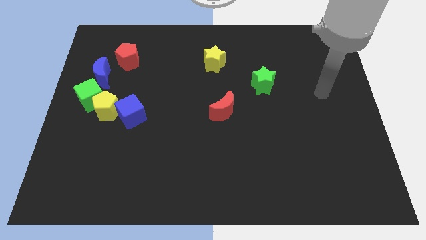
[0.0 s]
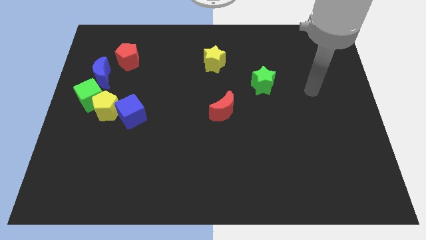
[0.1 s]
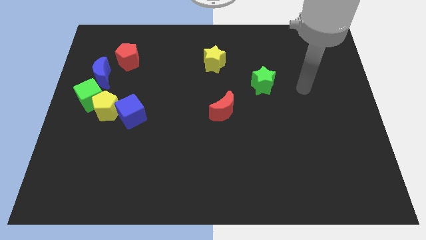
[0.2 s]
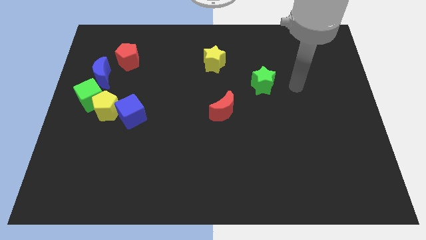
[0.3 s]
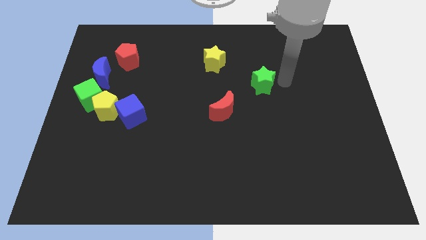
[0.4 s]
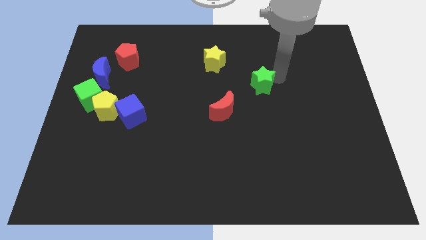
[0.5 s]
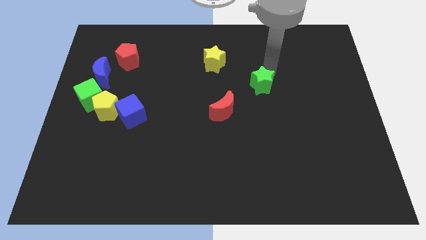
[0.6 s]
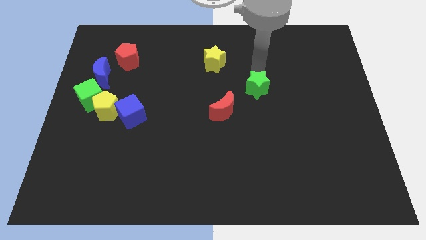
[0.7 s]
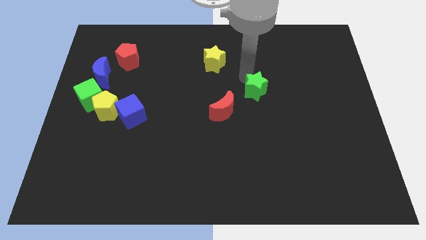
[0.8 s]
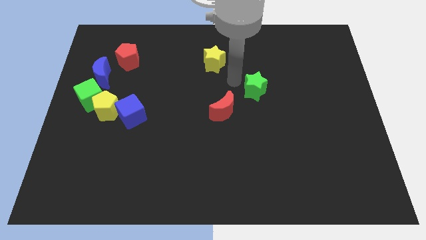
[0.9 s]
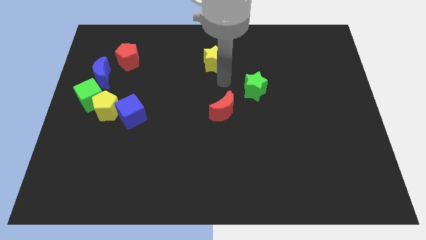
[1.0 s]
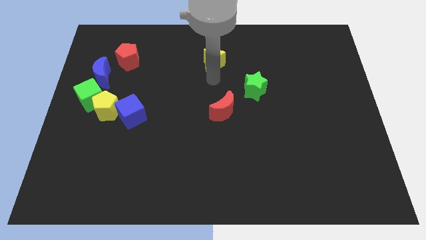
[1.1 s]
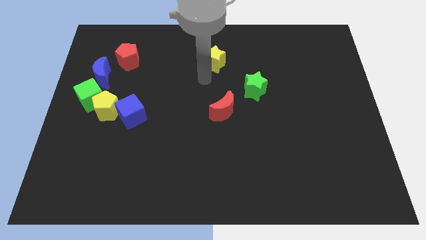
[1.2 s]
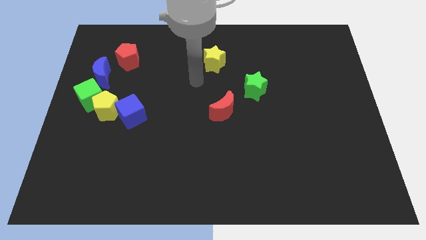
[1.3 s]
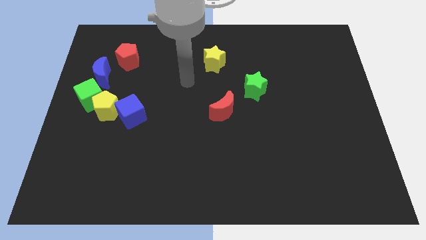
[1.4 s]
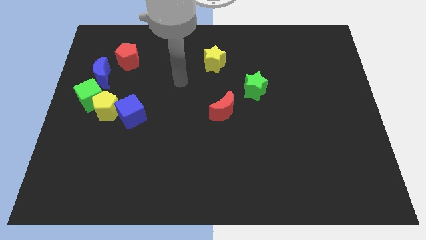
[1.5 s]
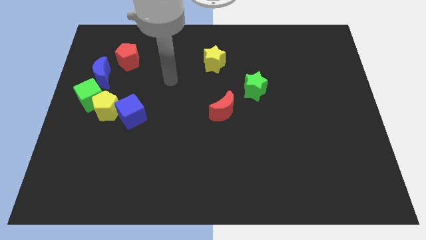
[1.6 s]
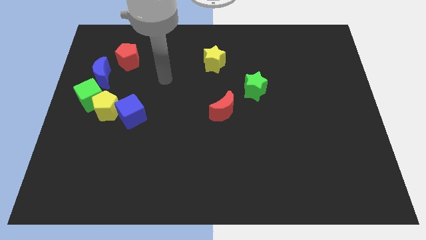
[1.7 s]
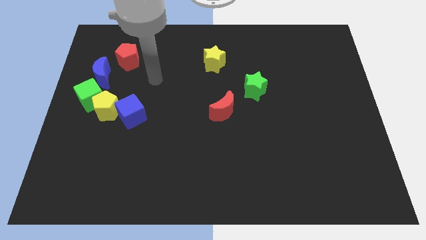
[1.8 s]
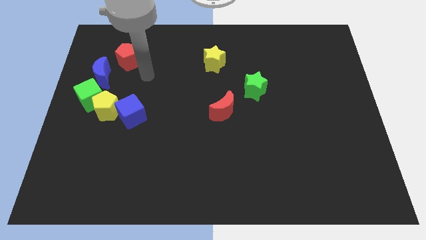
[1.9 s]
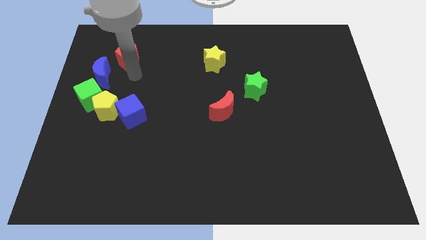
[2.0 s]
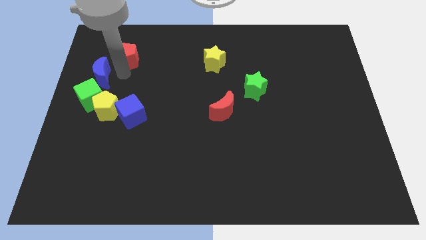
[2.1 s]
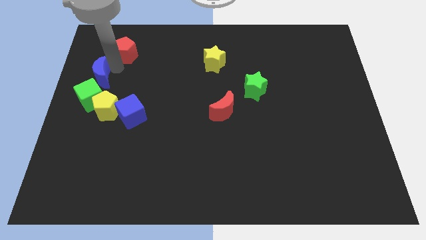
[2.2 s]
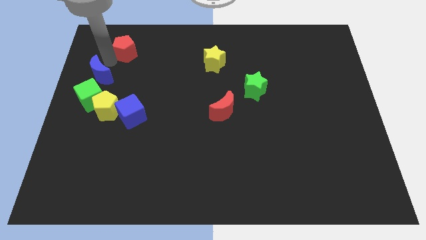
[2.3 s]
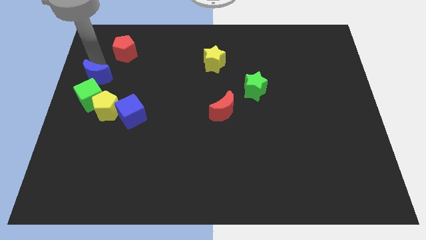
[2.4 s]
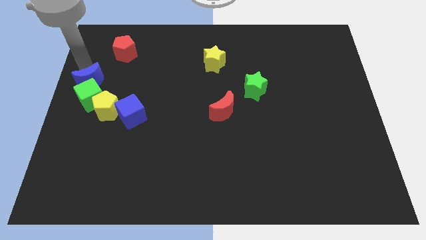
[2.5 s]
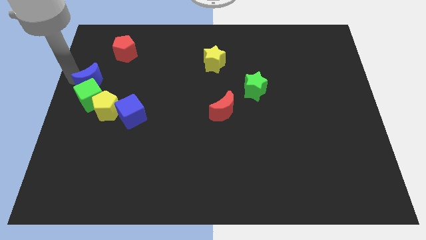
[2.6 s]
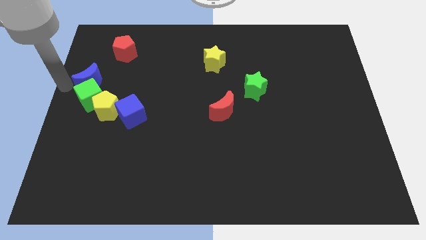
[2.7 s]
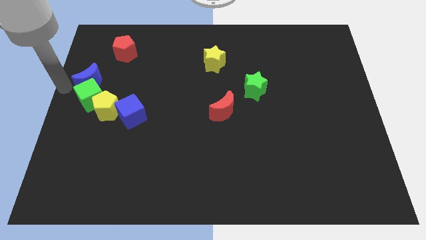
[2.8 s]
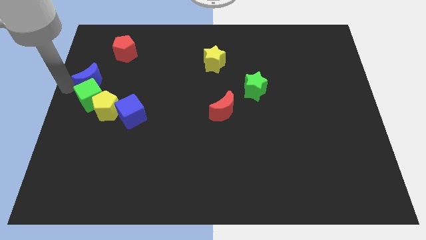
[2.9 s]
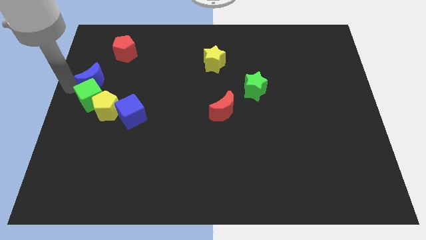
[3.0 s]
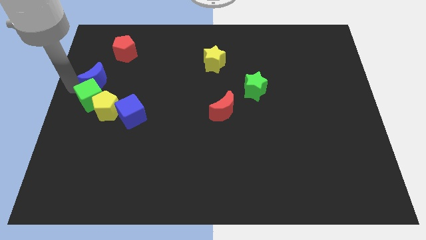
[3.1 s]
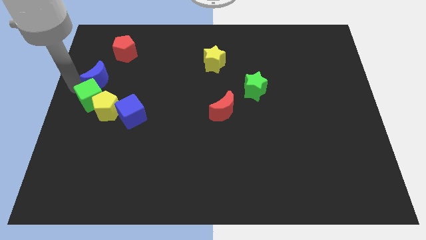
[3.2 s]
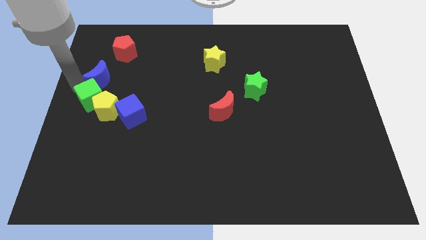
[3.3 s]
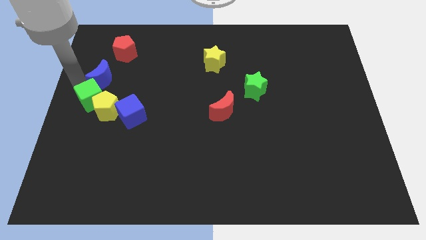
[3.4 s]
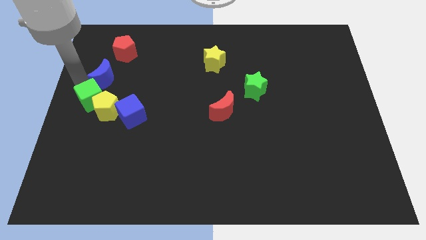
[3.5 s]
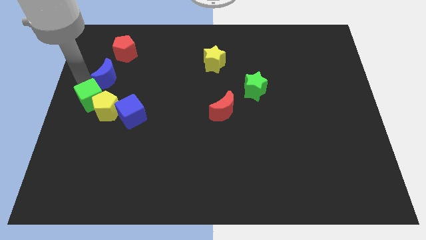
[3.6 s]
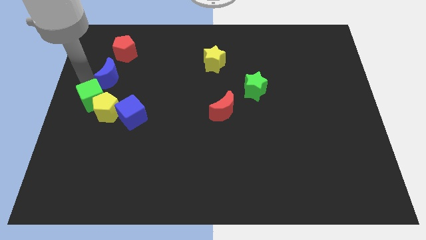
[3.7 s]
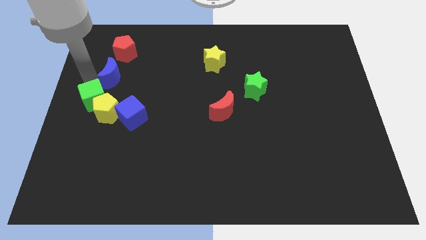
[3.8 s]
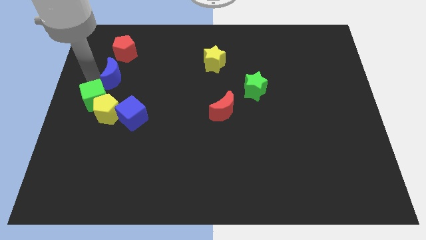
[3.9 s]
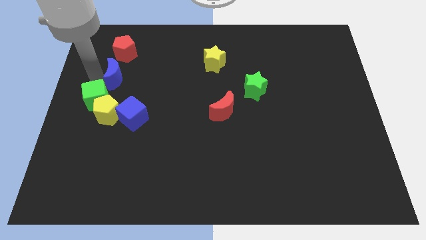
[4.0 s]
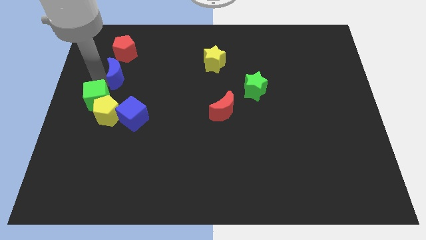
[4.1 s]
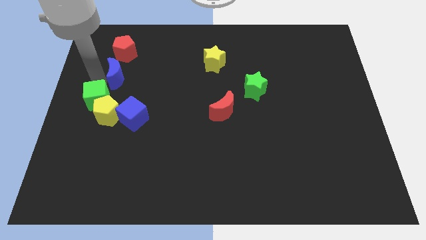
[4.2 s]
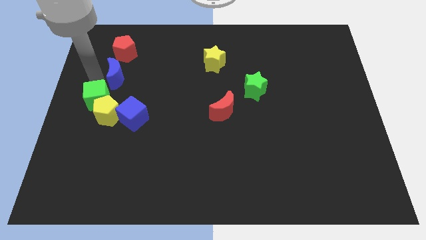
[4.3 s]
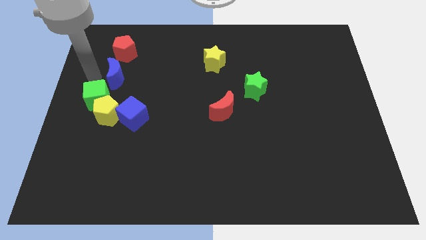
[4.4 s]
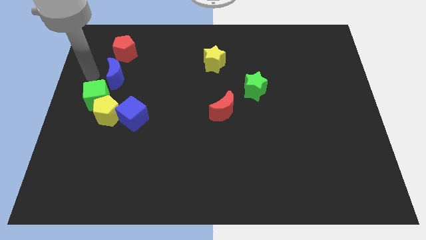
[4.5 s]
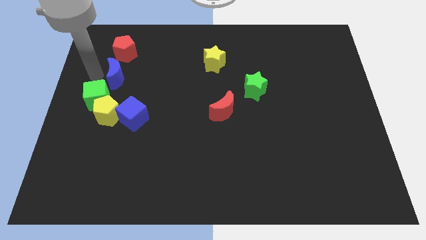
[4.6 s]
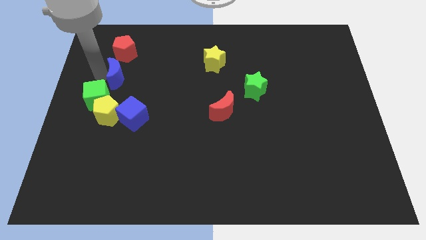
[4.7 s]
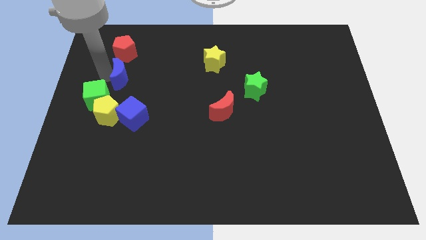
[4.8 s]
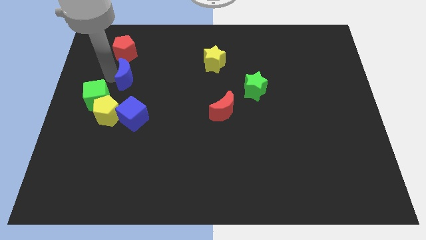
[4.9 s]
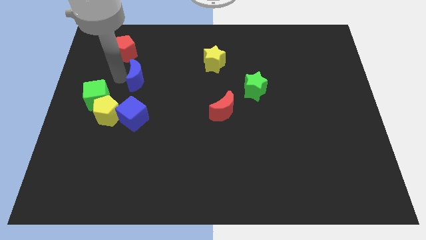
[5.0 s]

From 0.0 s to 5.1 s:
push the blue moon somewhat to the right

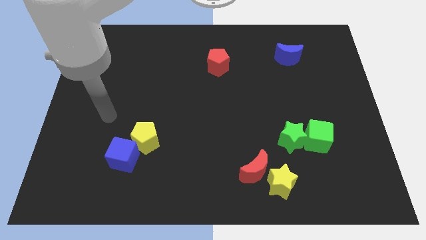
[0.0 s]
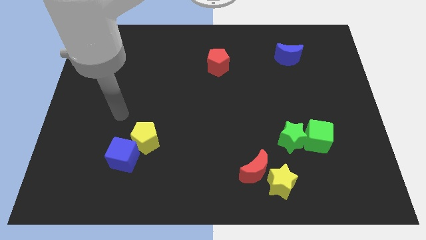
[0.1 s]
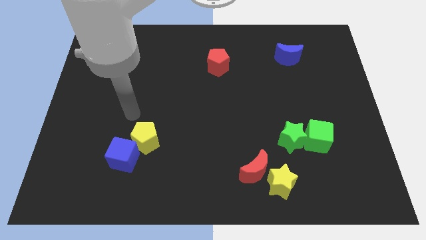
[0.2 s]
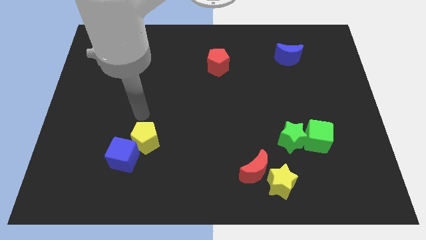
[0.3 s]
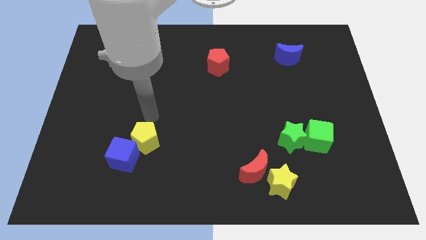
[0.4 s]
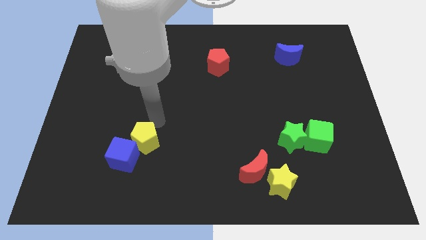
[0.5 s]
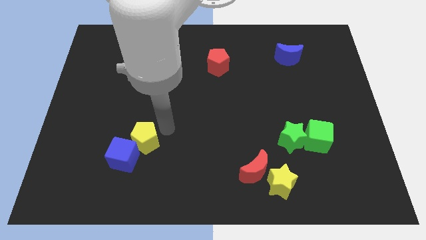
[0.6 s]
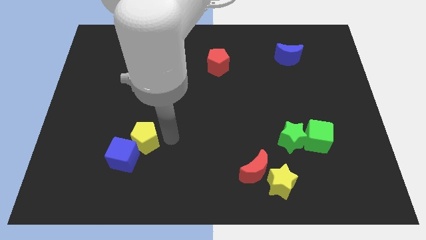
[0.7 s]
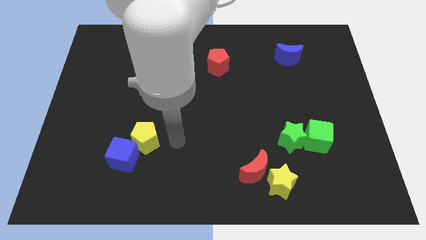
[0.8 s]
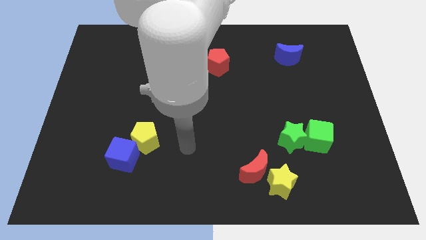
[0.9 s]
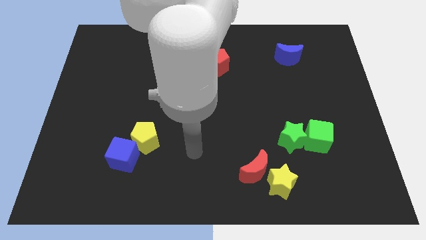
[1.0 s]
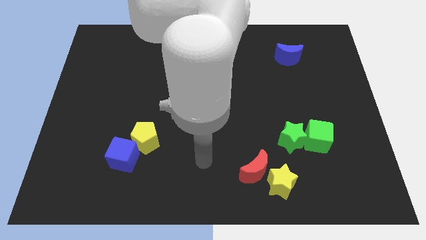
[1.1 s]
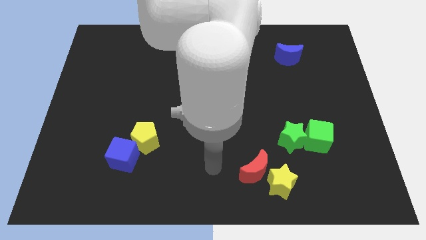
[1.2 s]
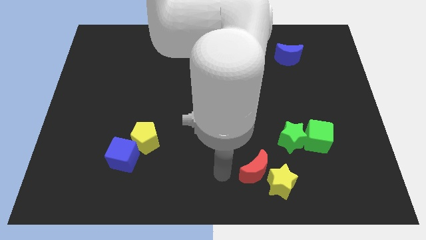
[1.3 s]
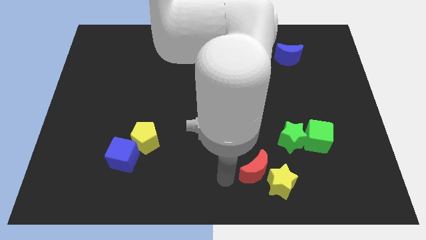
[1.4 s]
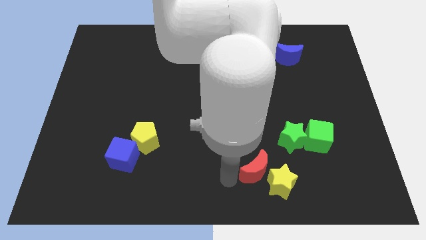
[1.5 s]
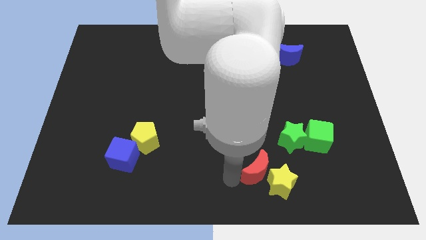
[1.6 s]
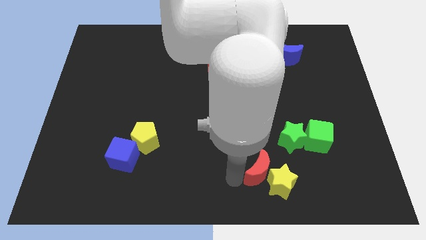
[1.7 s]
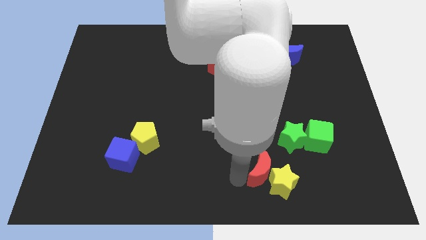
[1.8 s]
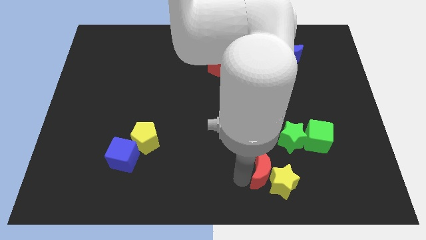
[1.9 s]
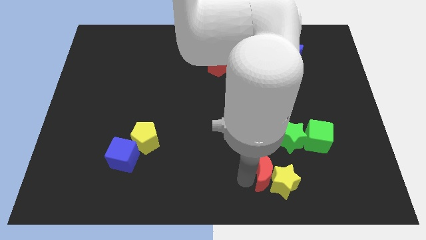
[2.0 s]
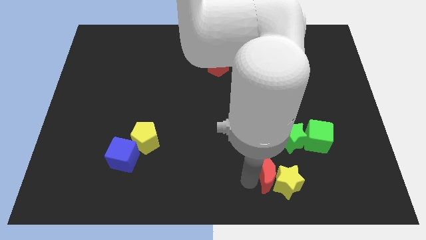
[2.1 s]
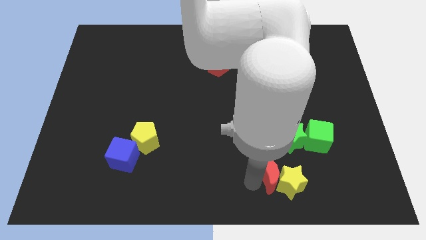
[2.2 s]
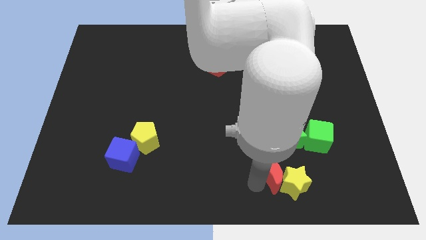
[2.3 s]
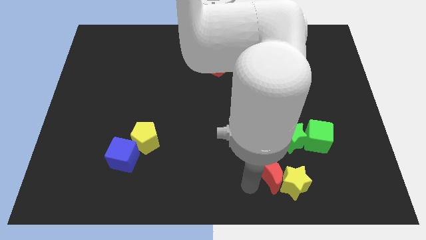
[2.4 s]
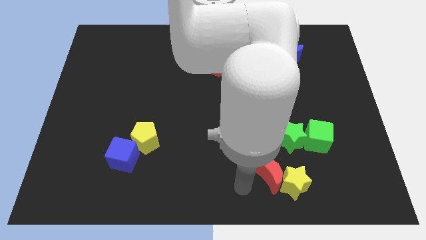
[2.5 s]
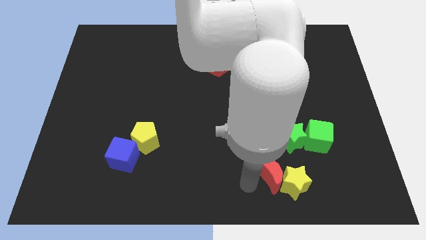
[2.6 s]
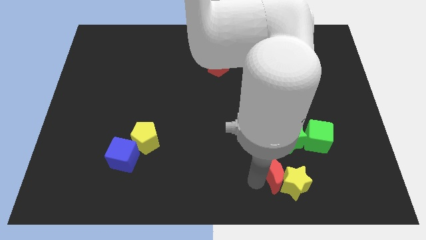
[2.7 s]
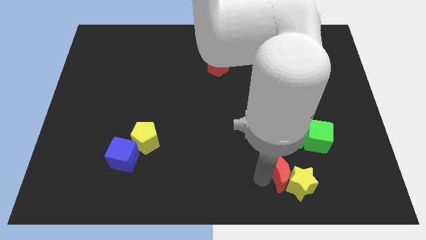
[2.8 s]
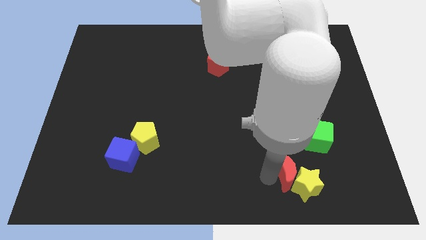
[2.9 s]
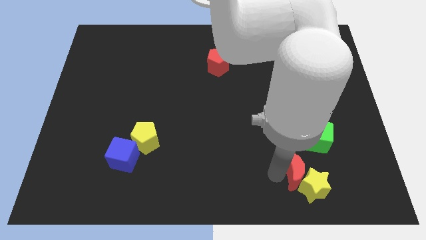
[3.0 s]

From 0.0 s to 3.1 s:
move the red moon to the right slightly
